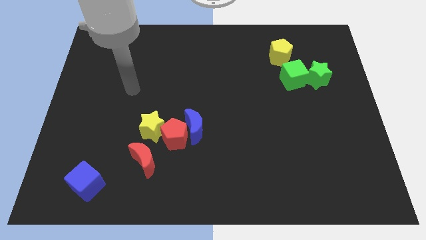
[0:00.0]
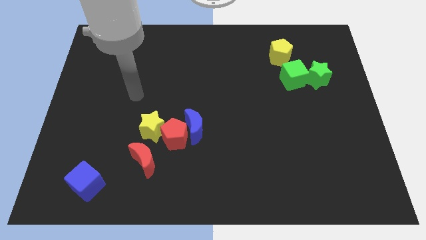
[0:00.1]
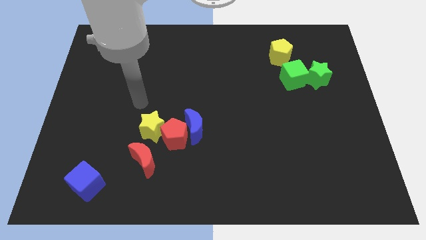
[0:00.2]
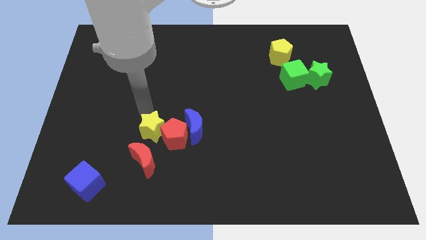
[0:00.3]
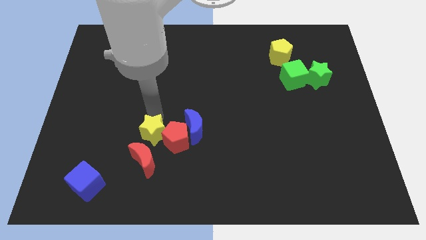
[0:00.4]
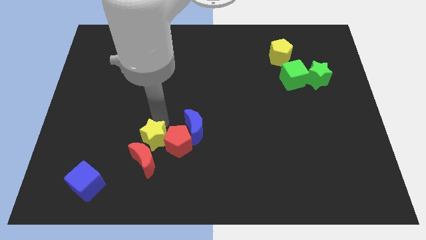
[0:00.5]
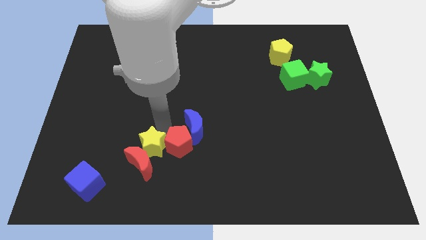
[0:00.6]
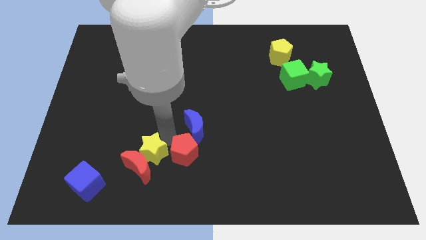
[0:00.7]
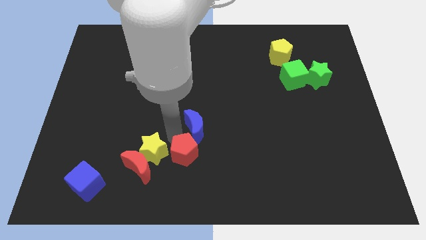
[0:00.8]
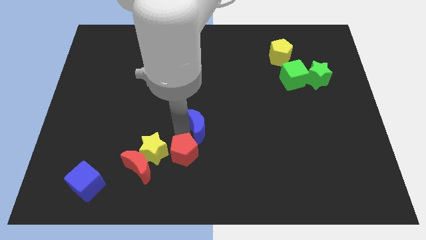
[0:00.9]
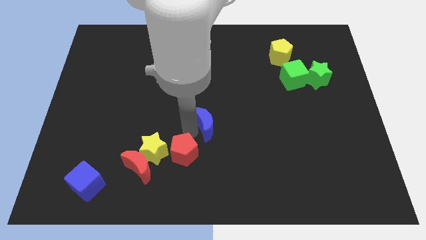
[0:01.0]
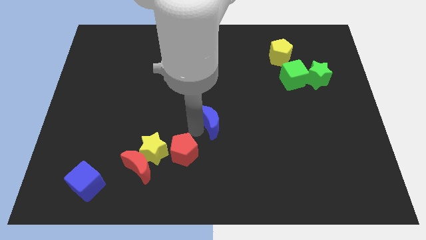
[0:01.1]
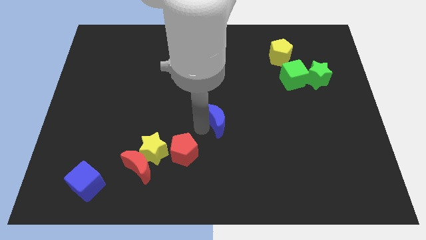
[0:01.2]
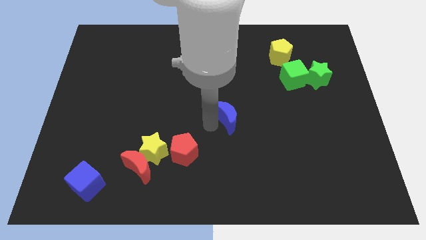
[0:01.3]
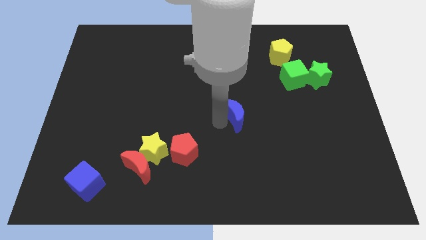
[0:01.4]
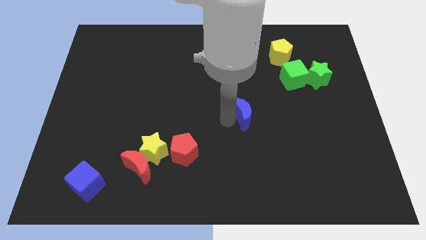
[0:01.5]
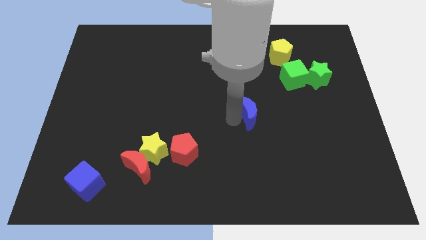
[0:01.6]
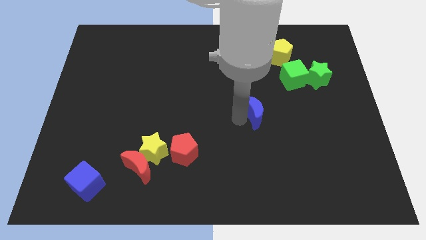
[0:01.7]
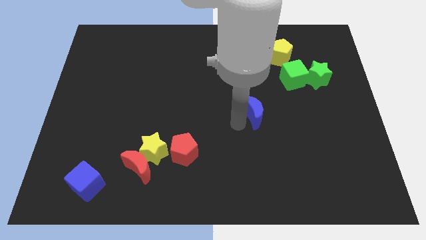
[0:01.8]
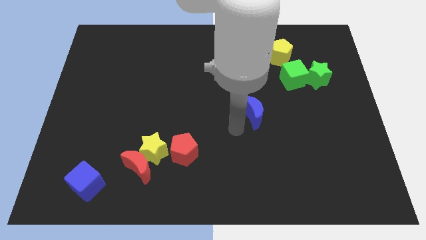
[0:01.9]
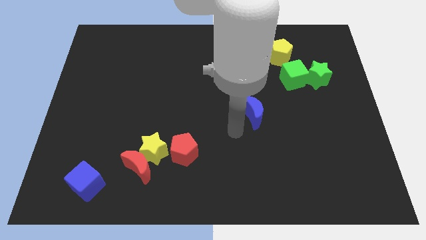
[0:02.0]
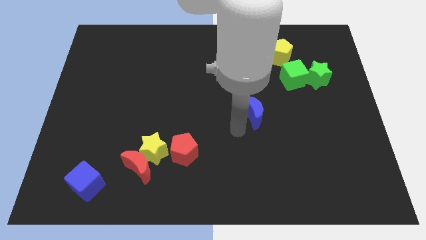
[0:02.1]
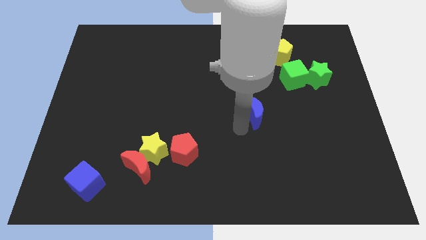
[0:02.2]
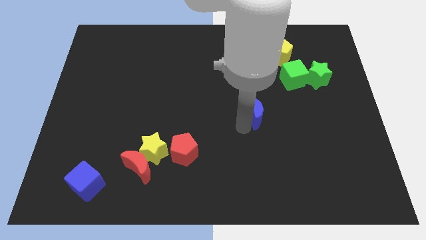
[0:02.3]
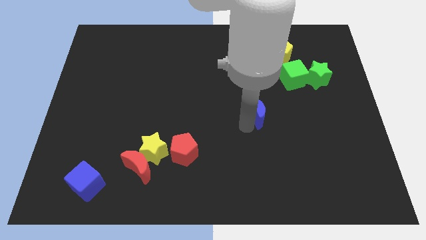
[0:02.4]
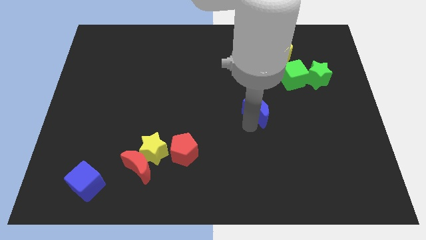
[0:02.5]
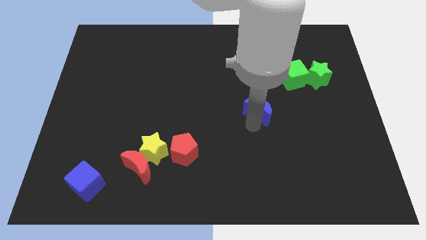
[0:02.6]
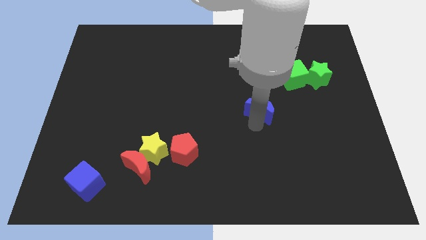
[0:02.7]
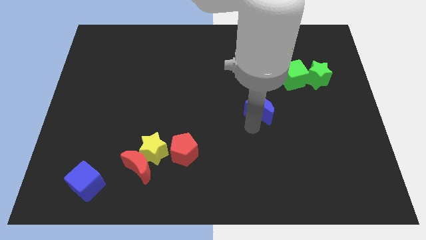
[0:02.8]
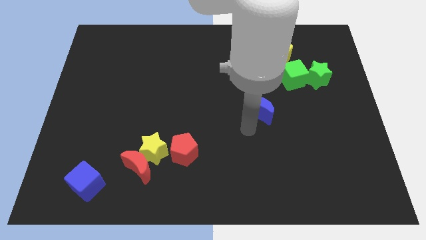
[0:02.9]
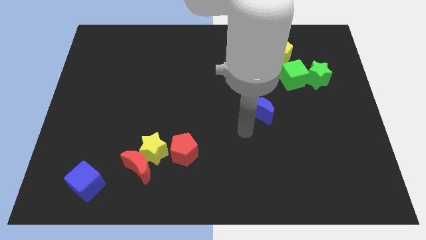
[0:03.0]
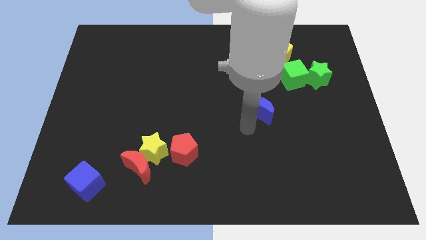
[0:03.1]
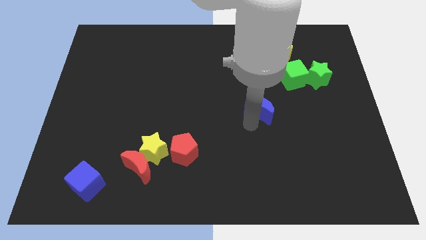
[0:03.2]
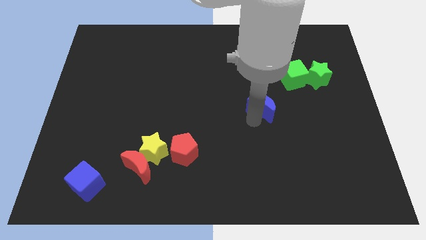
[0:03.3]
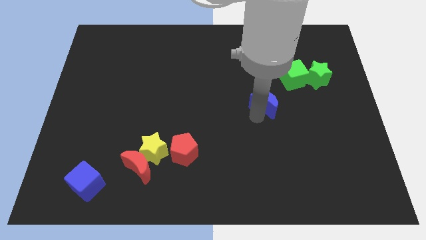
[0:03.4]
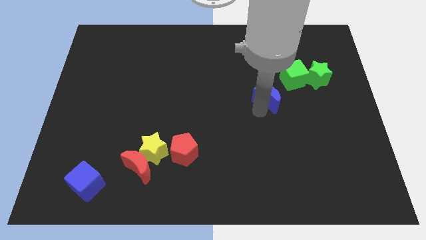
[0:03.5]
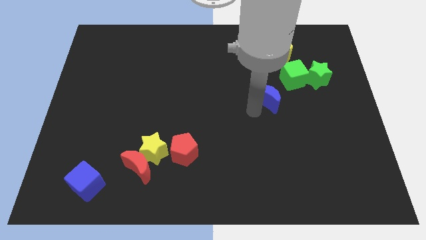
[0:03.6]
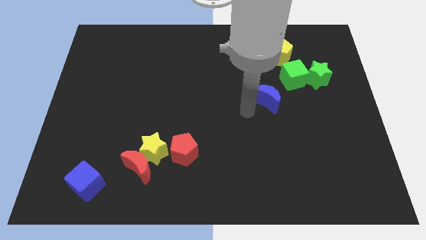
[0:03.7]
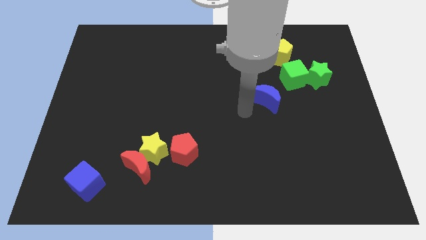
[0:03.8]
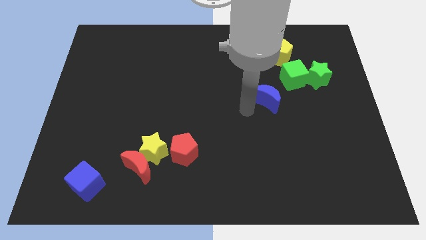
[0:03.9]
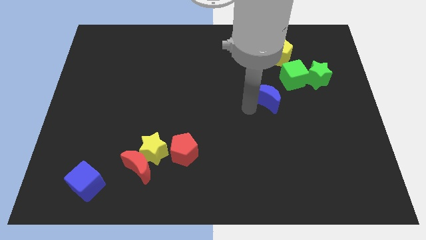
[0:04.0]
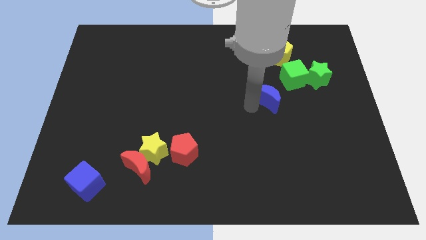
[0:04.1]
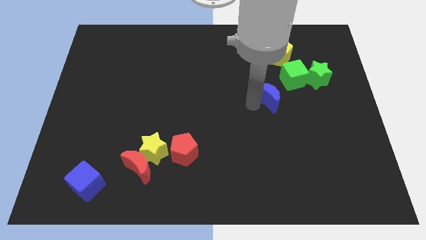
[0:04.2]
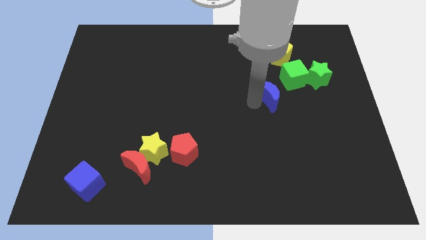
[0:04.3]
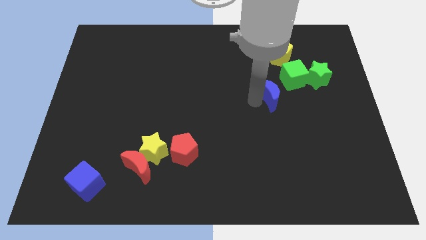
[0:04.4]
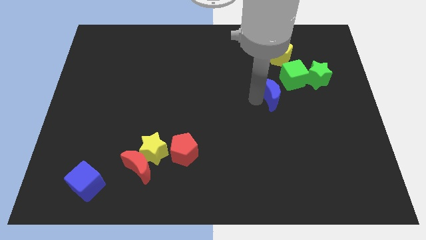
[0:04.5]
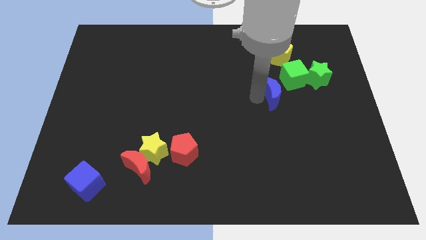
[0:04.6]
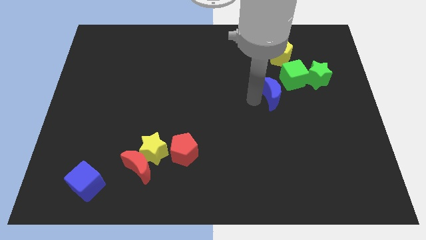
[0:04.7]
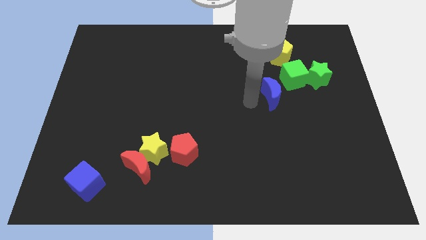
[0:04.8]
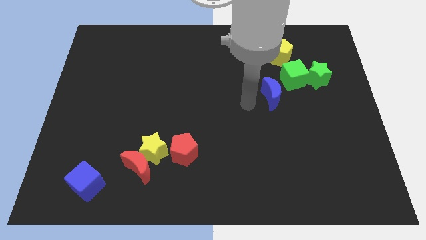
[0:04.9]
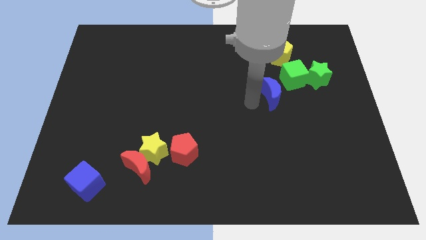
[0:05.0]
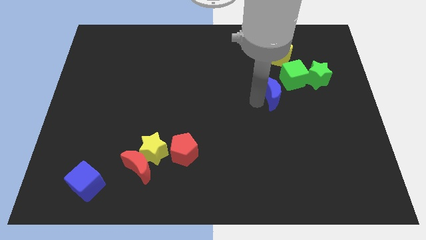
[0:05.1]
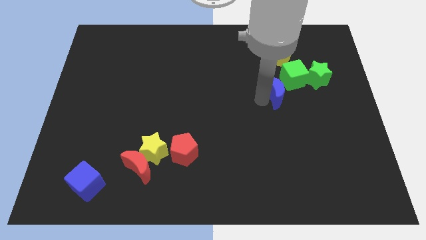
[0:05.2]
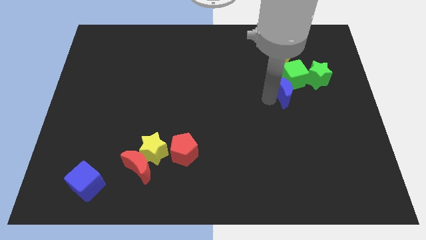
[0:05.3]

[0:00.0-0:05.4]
slide the blue moon towards the green cube

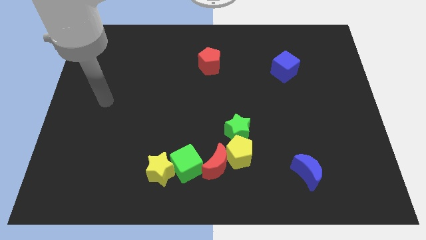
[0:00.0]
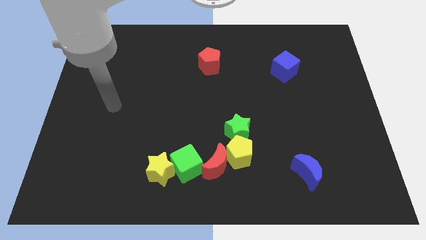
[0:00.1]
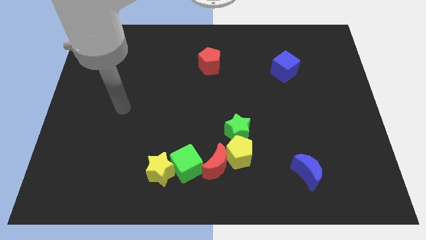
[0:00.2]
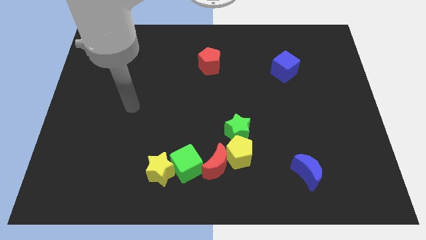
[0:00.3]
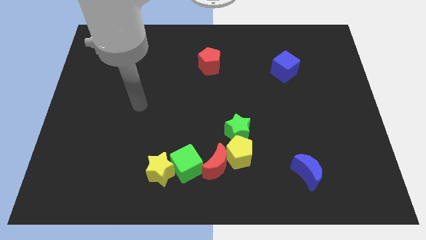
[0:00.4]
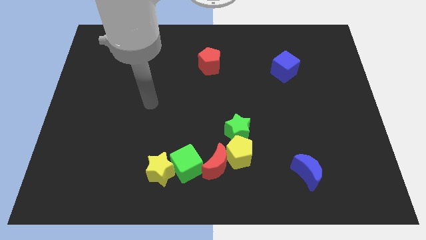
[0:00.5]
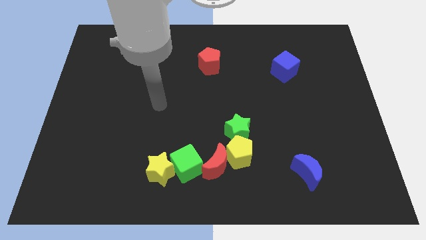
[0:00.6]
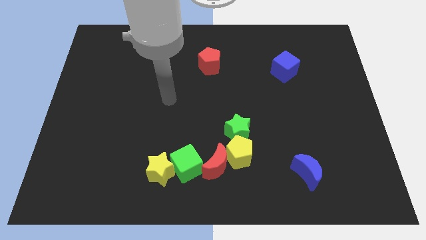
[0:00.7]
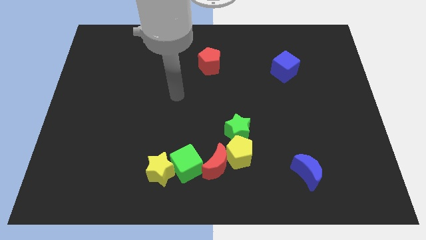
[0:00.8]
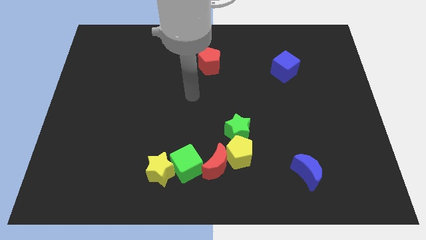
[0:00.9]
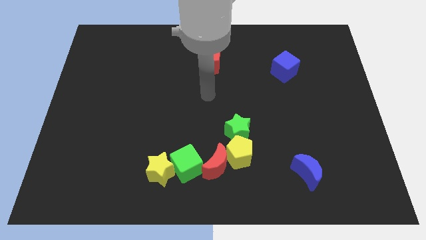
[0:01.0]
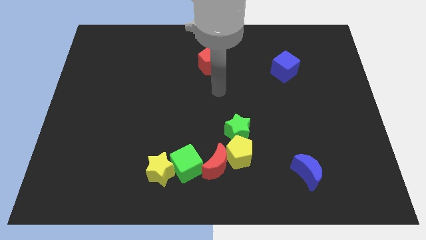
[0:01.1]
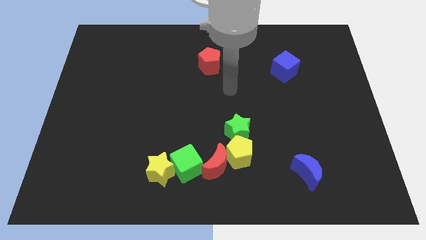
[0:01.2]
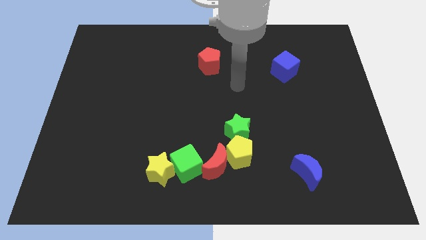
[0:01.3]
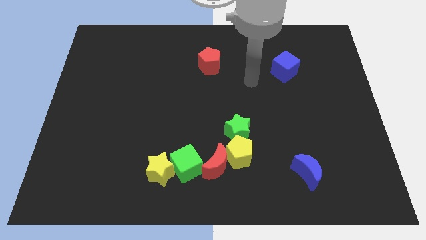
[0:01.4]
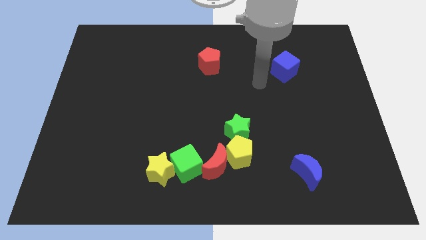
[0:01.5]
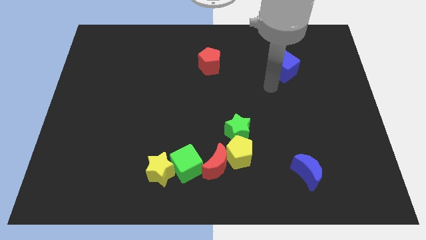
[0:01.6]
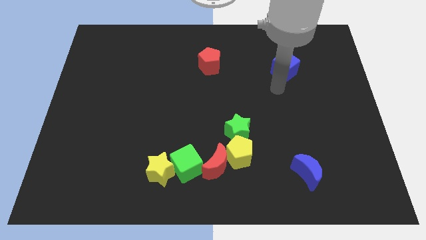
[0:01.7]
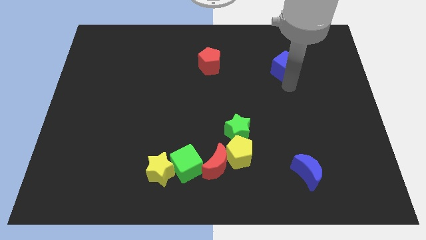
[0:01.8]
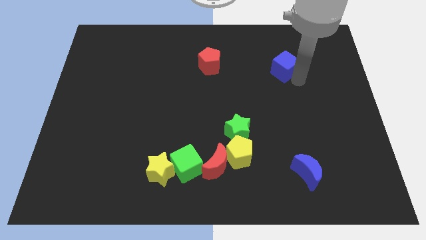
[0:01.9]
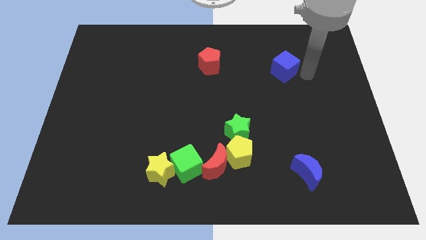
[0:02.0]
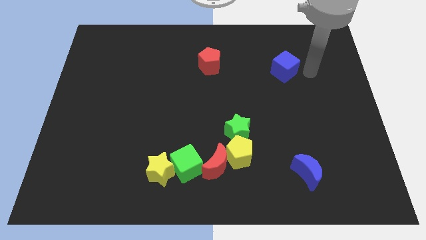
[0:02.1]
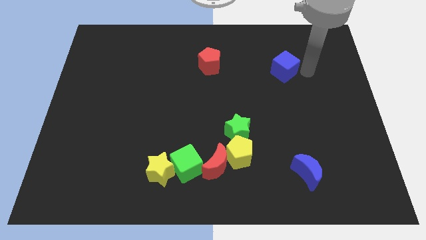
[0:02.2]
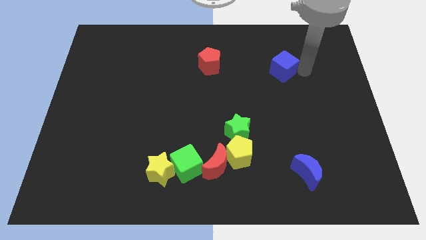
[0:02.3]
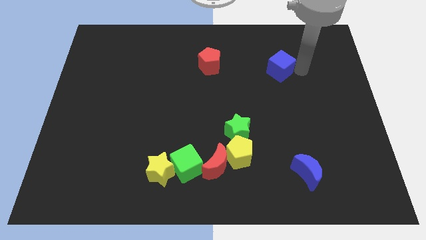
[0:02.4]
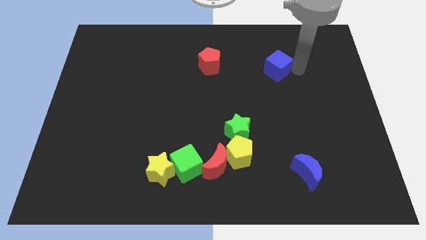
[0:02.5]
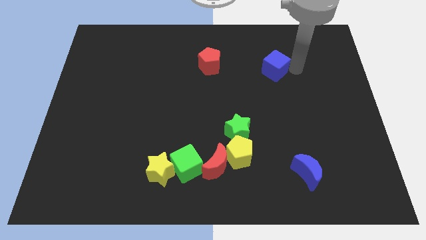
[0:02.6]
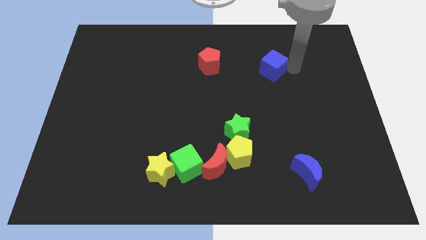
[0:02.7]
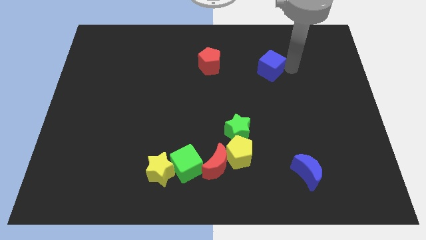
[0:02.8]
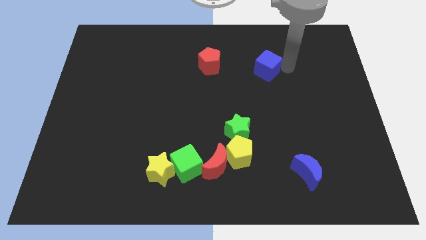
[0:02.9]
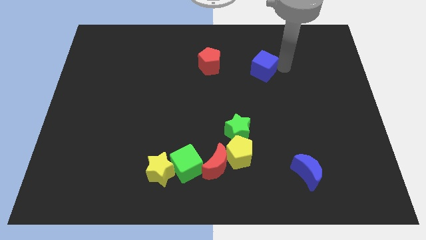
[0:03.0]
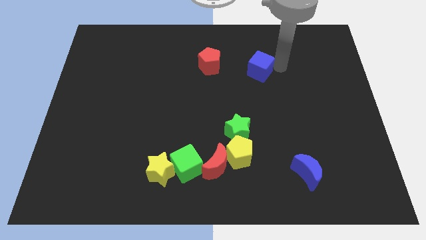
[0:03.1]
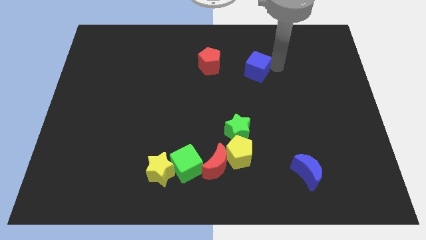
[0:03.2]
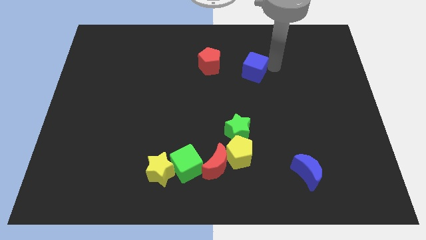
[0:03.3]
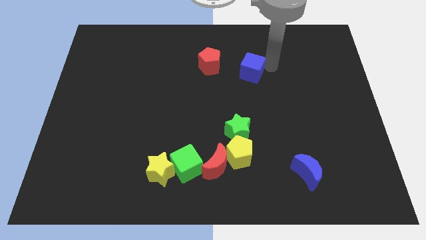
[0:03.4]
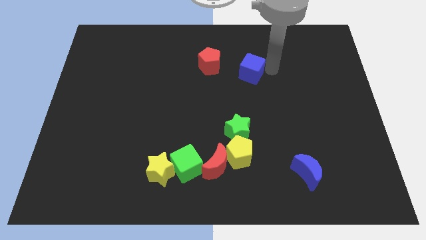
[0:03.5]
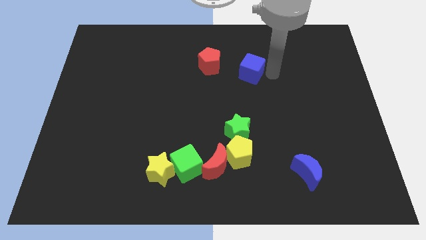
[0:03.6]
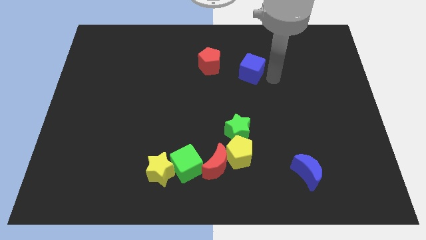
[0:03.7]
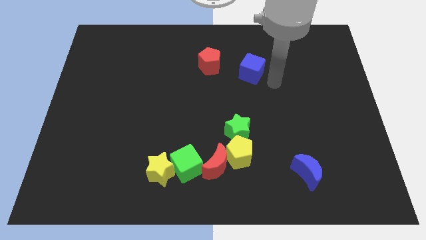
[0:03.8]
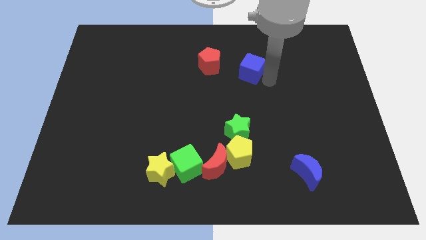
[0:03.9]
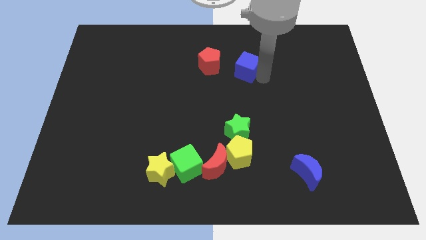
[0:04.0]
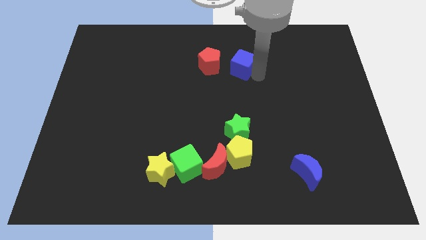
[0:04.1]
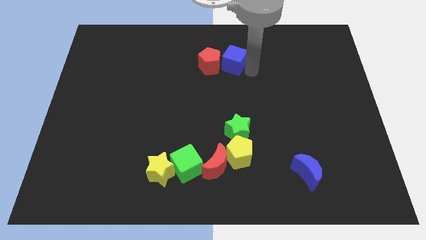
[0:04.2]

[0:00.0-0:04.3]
push the blue cube close to the red pentagon
